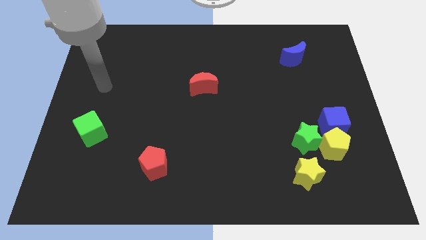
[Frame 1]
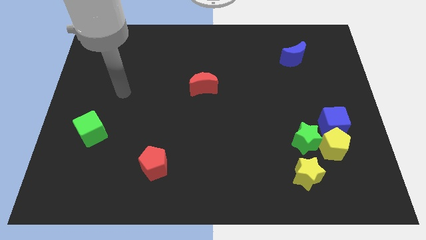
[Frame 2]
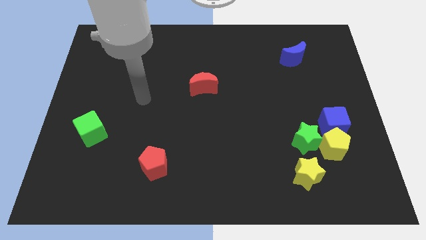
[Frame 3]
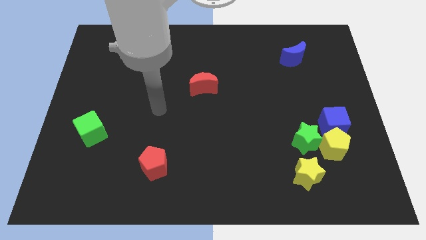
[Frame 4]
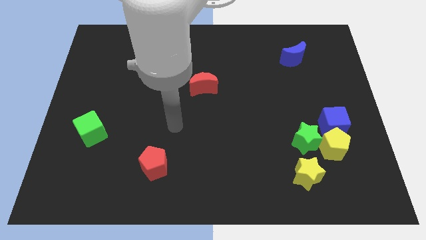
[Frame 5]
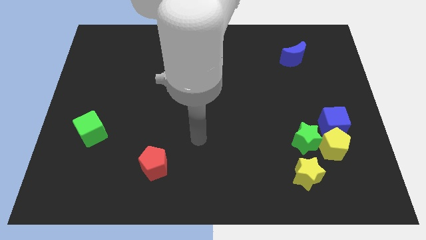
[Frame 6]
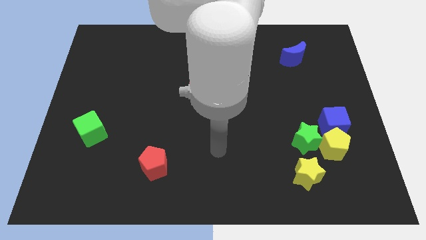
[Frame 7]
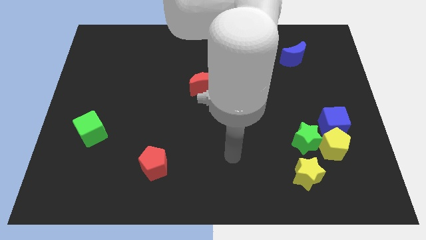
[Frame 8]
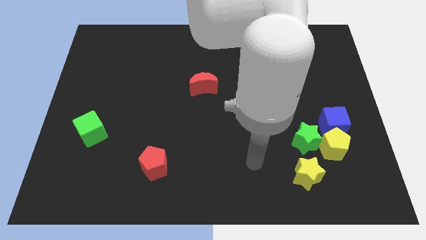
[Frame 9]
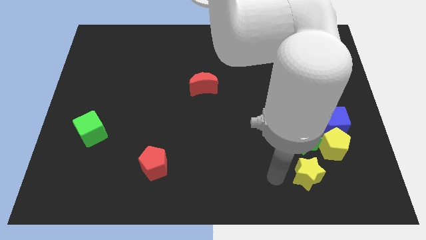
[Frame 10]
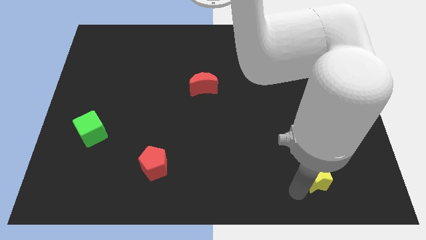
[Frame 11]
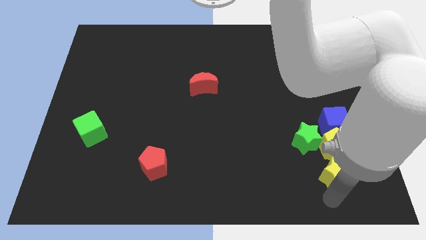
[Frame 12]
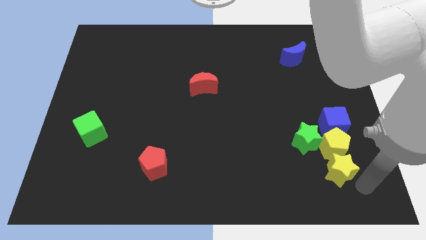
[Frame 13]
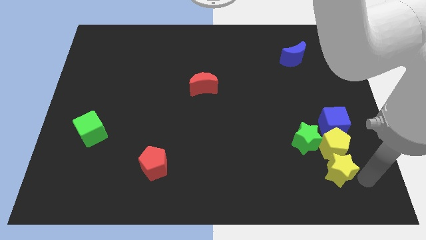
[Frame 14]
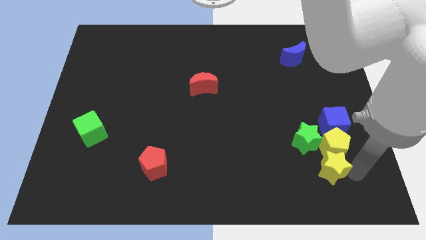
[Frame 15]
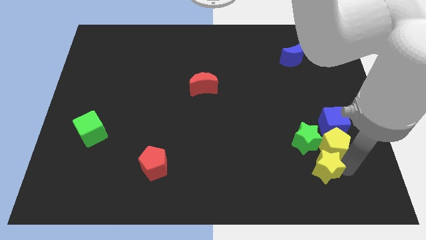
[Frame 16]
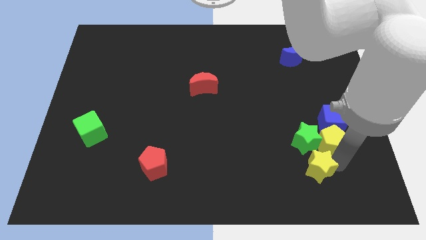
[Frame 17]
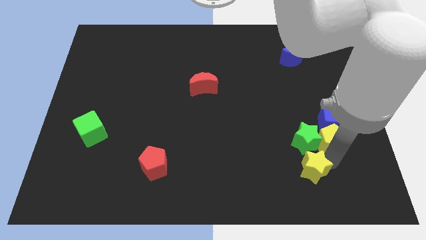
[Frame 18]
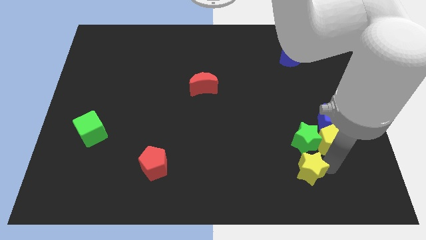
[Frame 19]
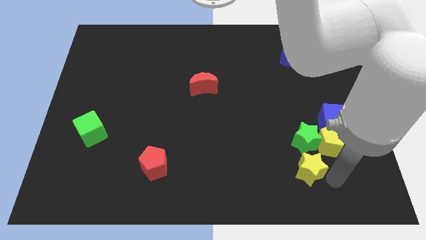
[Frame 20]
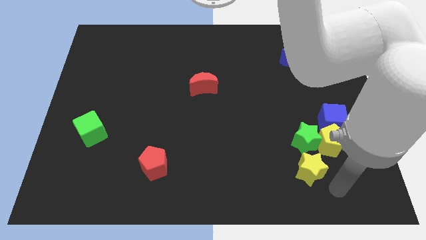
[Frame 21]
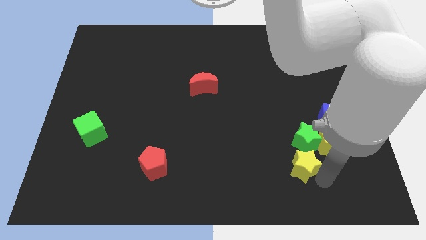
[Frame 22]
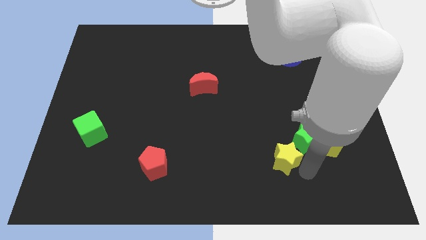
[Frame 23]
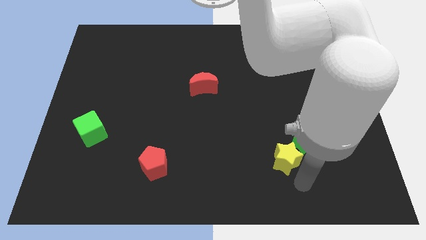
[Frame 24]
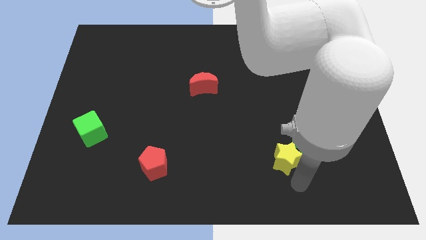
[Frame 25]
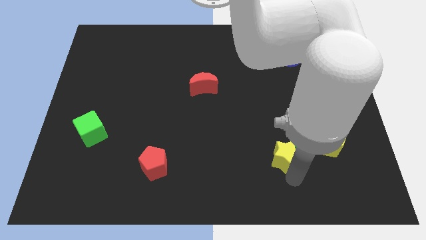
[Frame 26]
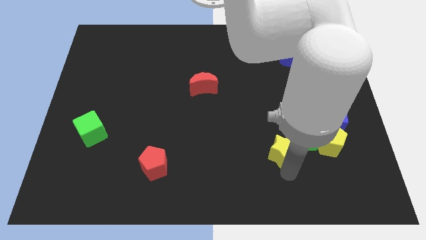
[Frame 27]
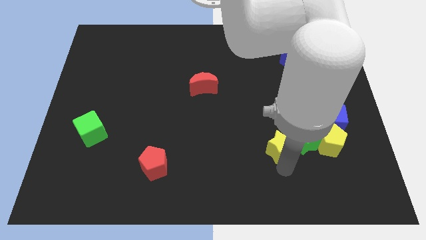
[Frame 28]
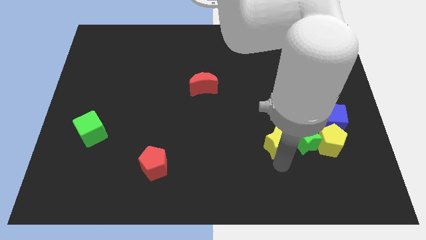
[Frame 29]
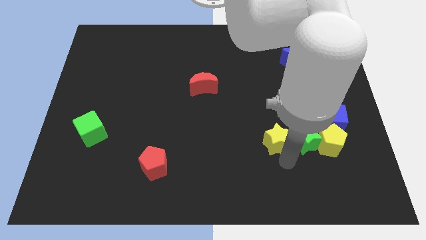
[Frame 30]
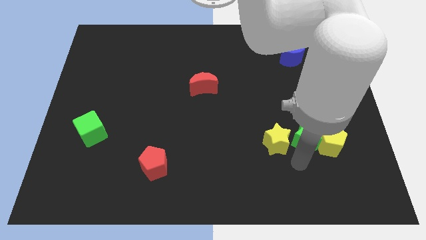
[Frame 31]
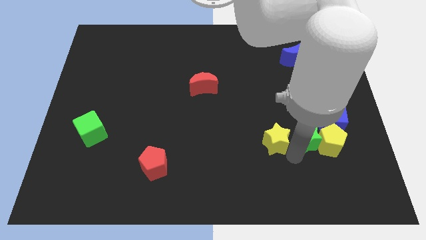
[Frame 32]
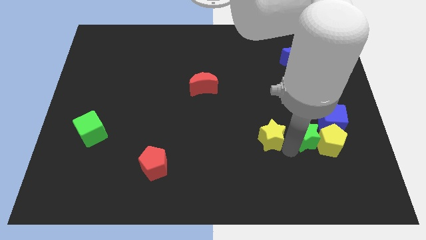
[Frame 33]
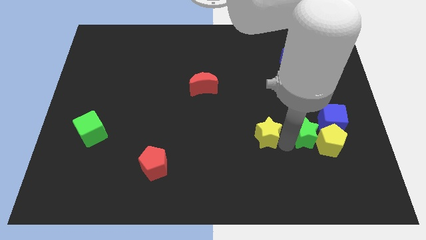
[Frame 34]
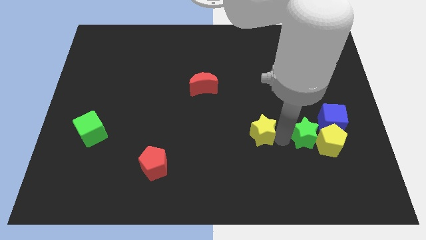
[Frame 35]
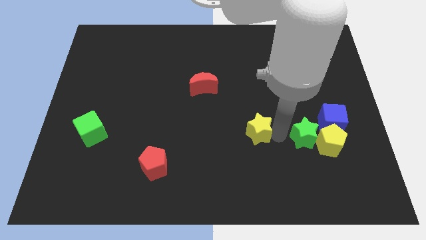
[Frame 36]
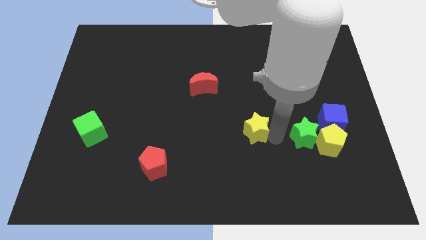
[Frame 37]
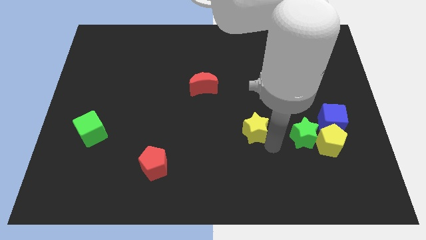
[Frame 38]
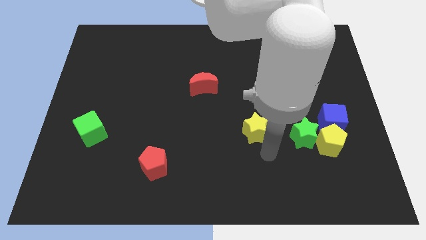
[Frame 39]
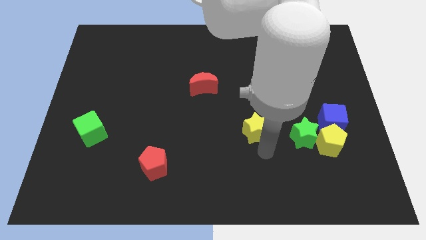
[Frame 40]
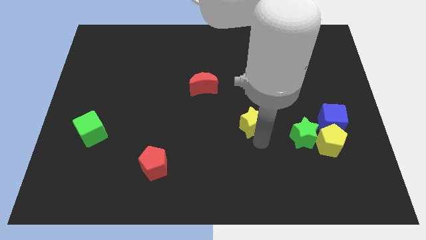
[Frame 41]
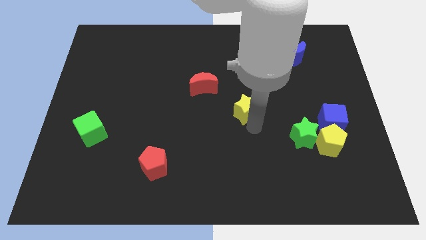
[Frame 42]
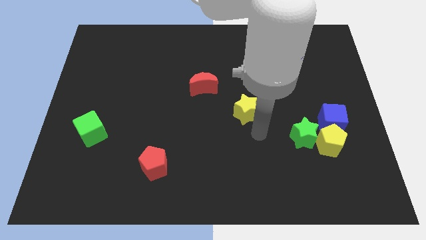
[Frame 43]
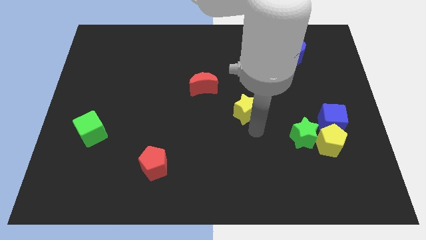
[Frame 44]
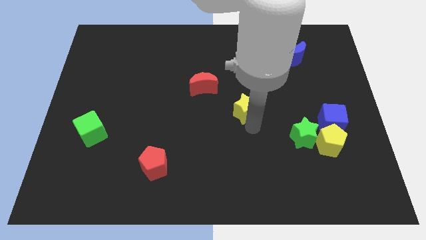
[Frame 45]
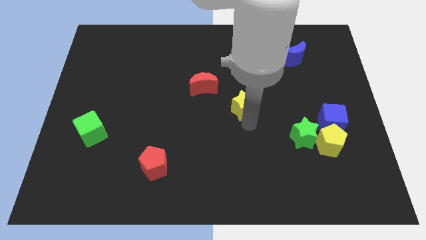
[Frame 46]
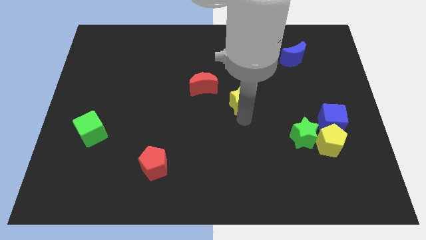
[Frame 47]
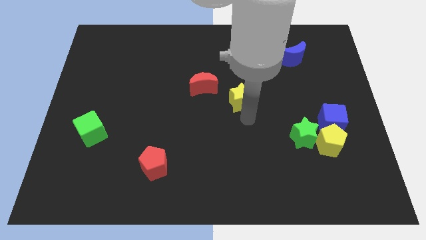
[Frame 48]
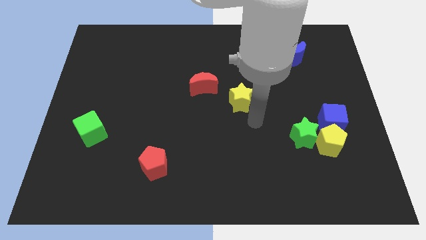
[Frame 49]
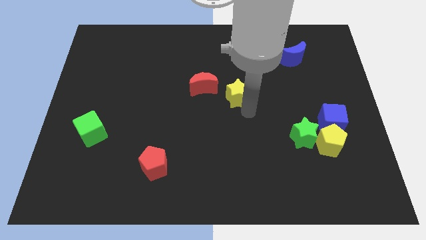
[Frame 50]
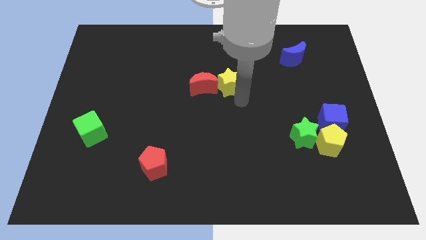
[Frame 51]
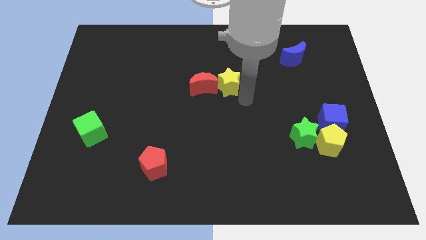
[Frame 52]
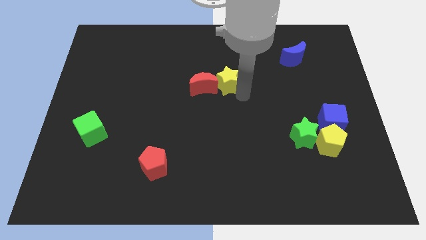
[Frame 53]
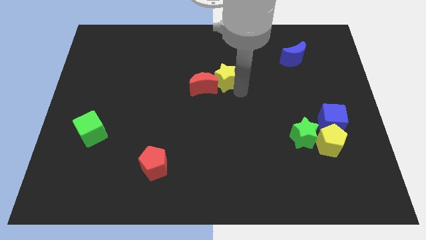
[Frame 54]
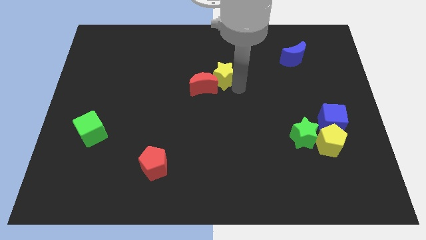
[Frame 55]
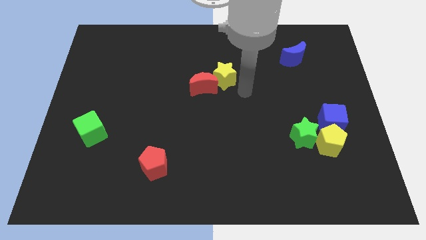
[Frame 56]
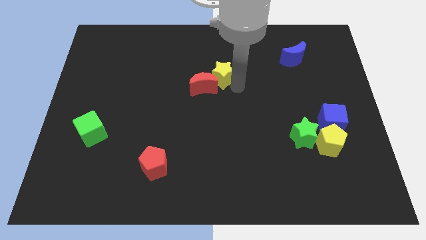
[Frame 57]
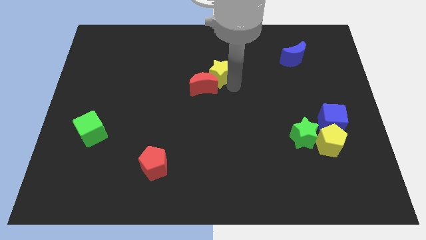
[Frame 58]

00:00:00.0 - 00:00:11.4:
push the yellow star to the top of the red moon
